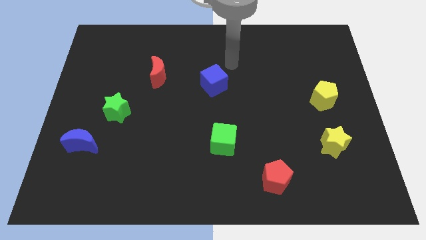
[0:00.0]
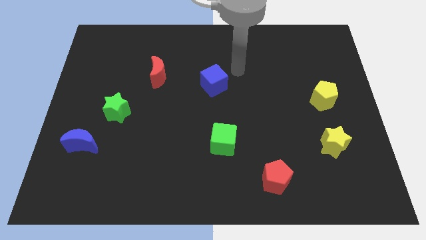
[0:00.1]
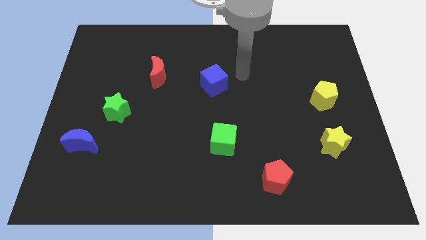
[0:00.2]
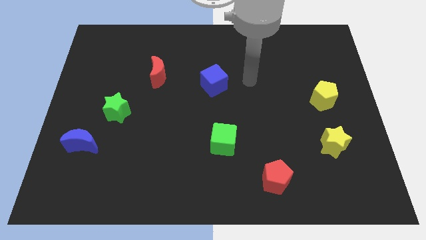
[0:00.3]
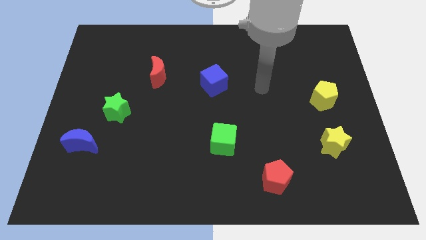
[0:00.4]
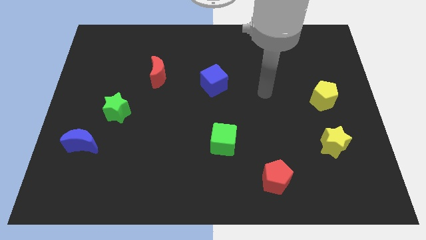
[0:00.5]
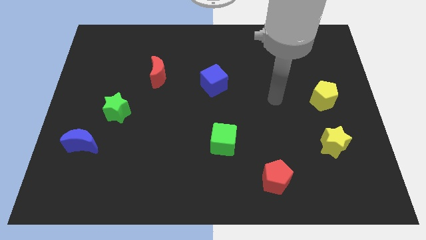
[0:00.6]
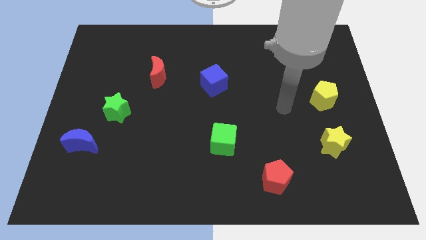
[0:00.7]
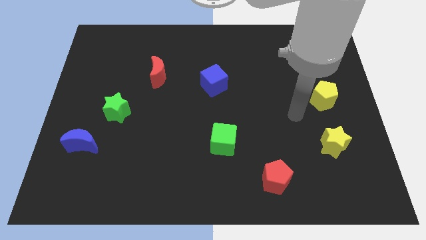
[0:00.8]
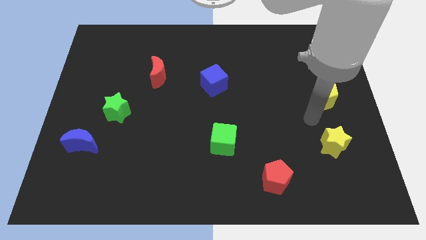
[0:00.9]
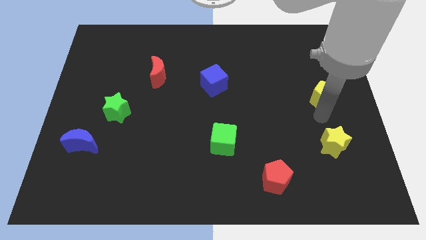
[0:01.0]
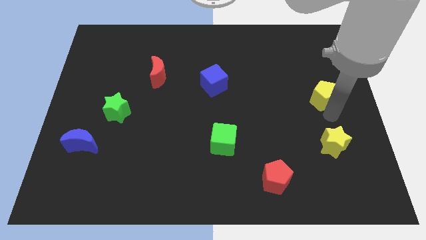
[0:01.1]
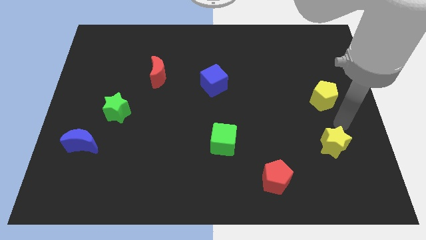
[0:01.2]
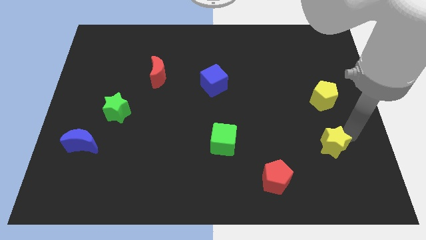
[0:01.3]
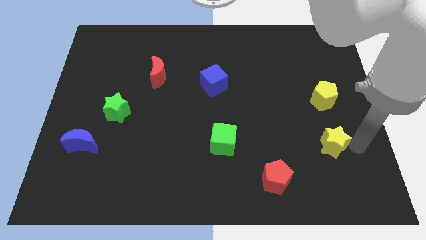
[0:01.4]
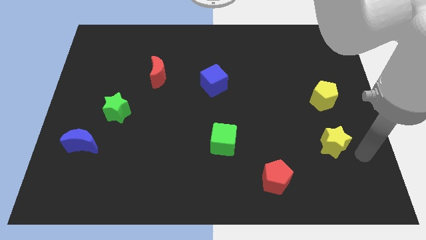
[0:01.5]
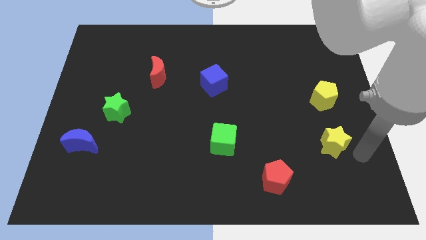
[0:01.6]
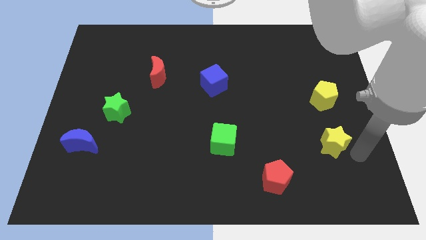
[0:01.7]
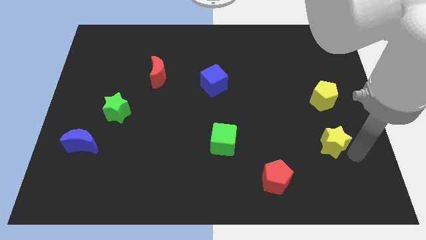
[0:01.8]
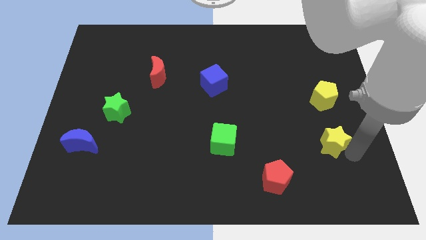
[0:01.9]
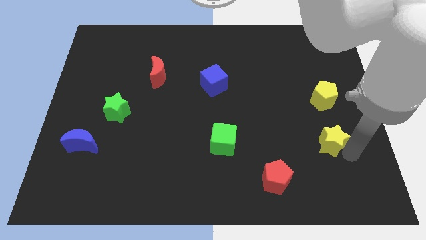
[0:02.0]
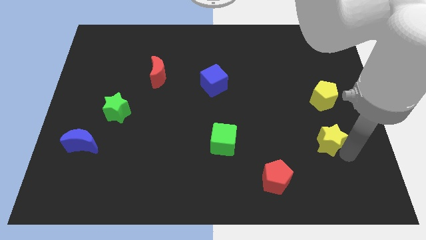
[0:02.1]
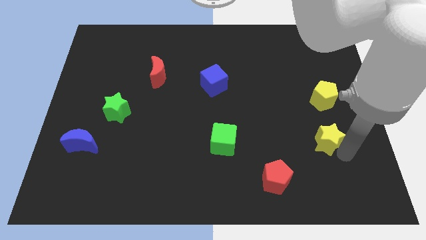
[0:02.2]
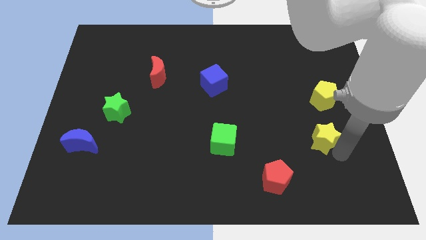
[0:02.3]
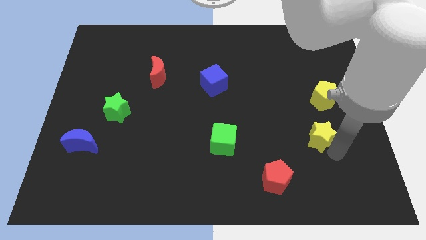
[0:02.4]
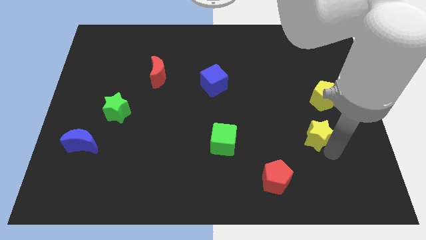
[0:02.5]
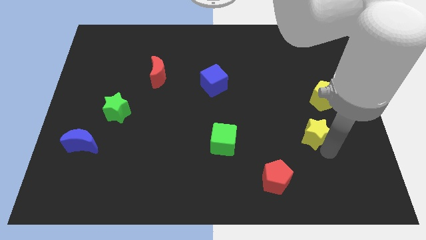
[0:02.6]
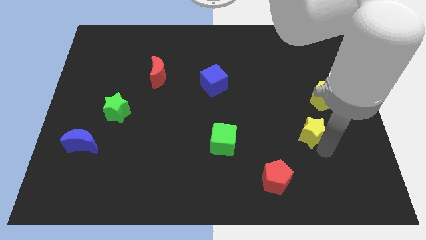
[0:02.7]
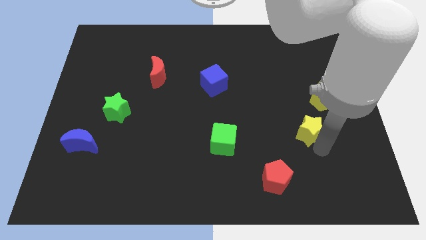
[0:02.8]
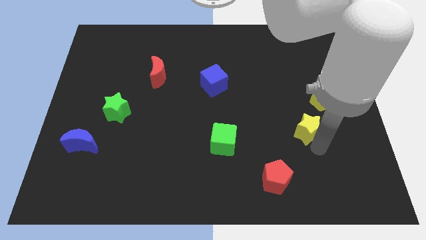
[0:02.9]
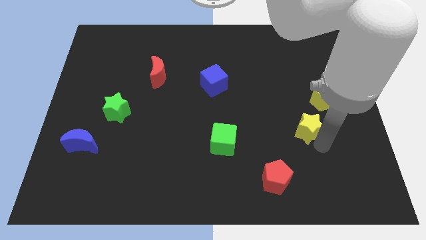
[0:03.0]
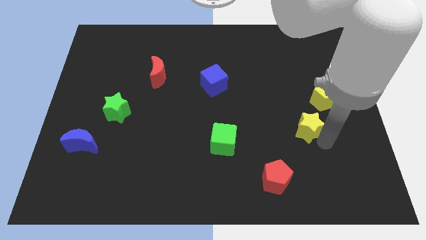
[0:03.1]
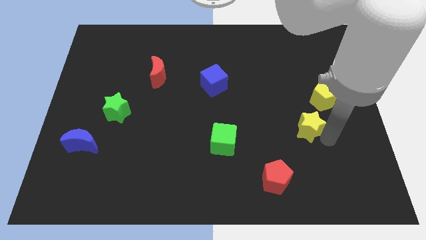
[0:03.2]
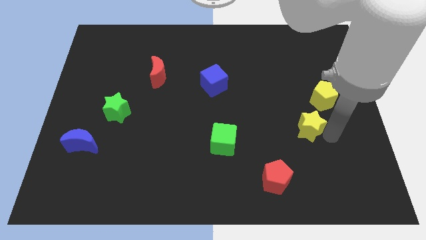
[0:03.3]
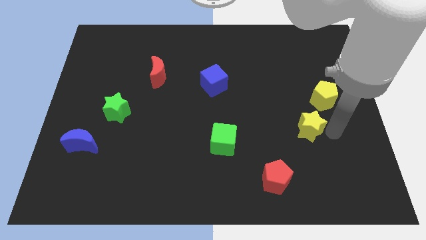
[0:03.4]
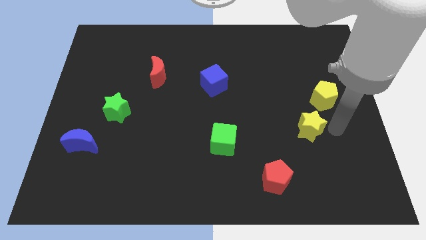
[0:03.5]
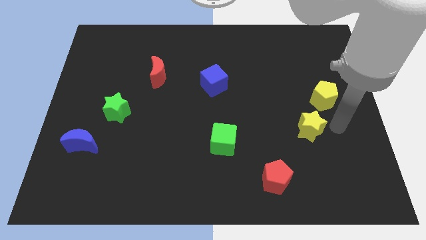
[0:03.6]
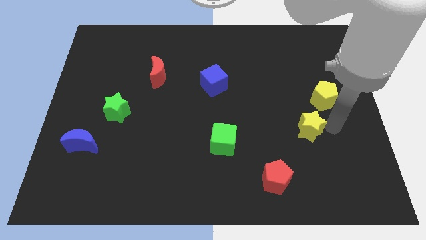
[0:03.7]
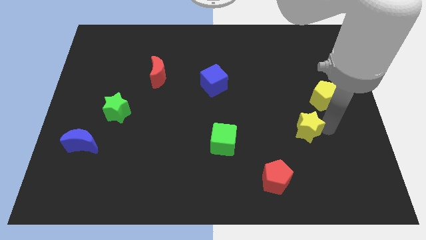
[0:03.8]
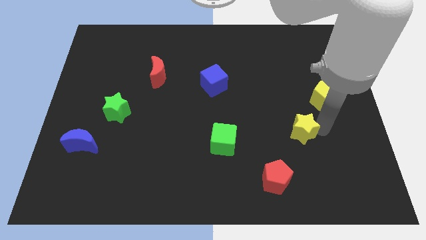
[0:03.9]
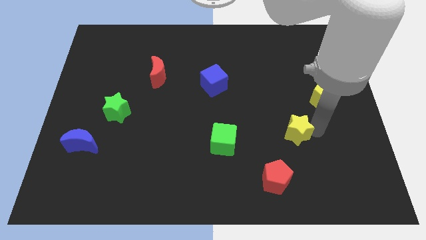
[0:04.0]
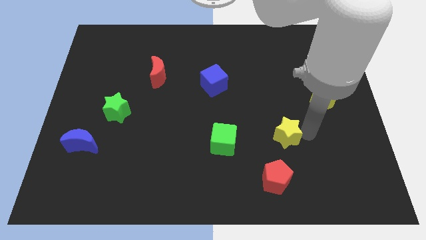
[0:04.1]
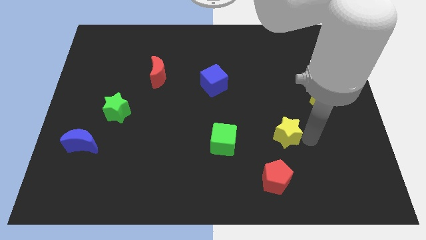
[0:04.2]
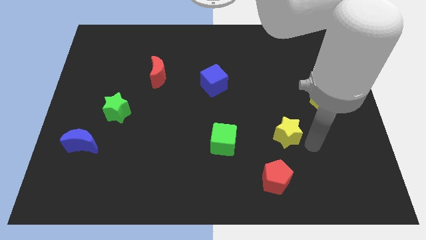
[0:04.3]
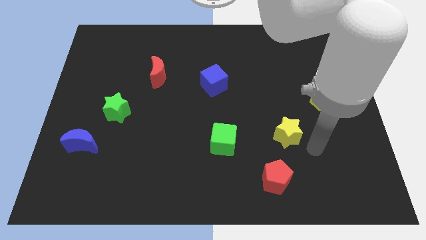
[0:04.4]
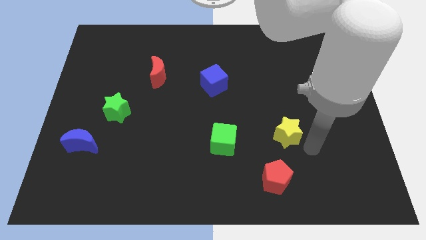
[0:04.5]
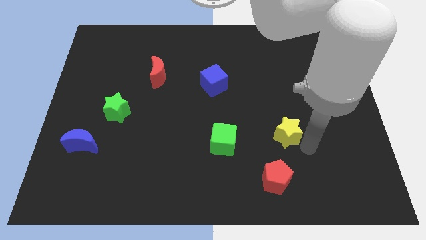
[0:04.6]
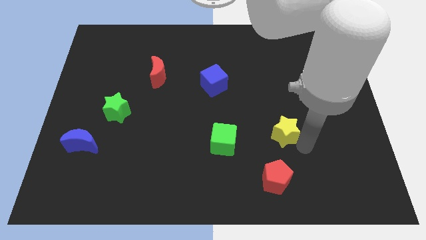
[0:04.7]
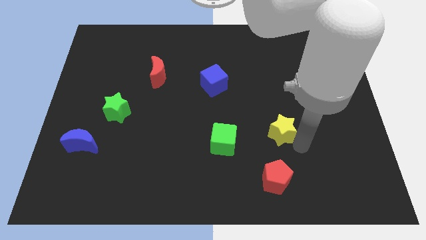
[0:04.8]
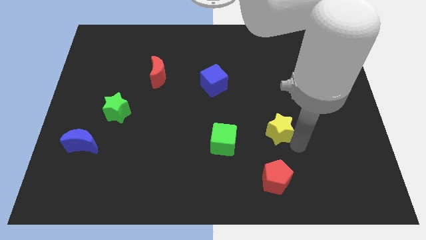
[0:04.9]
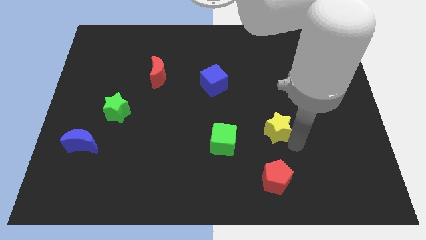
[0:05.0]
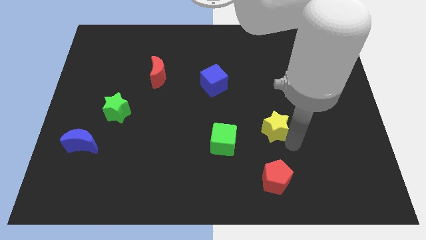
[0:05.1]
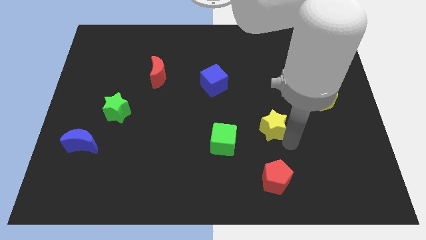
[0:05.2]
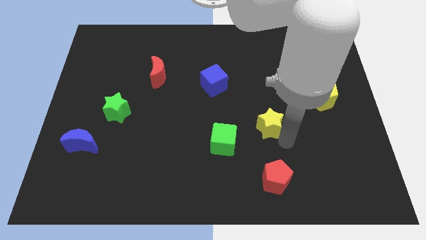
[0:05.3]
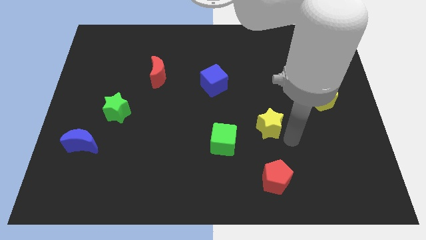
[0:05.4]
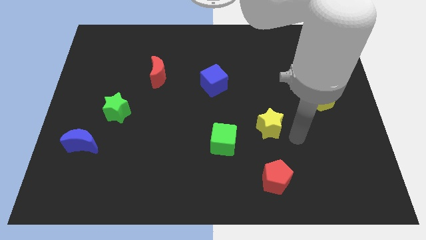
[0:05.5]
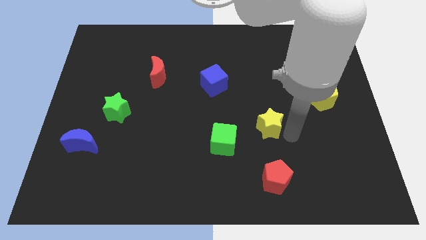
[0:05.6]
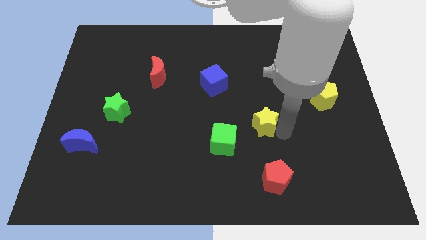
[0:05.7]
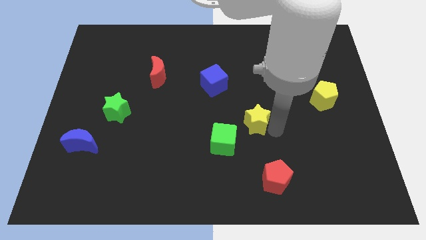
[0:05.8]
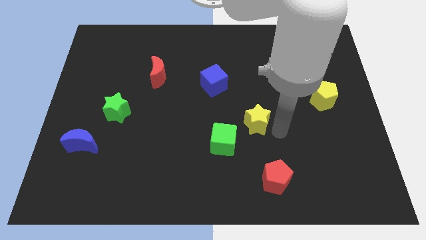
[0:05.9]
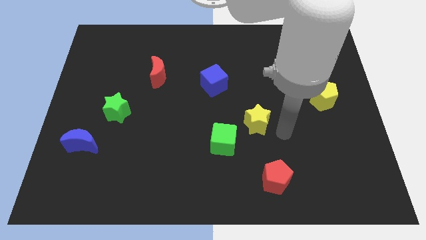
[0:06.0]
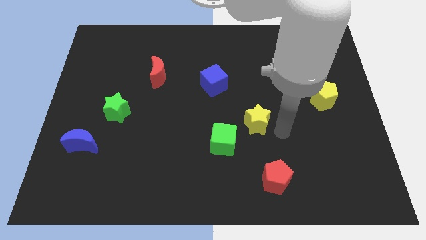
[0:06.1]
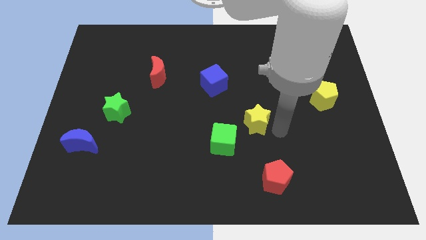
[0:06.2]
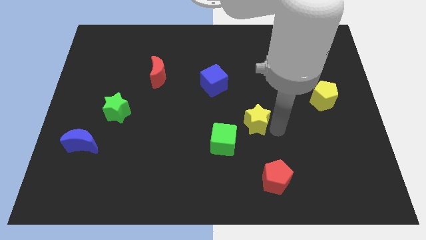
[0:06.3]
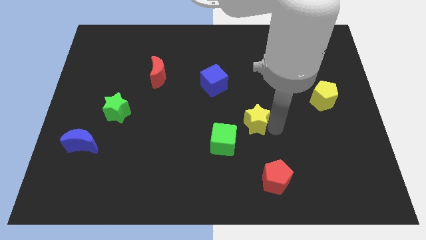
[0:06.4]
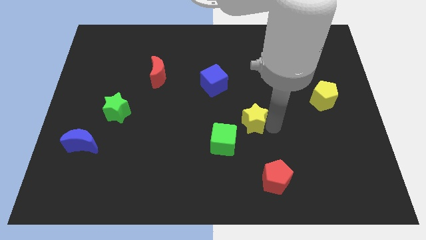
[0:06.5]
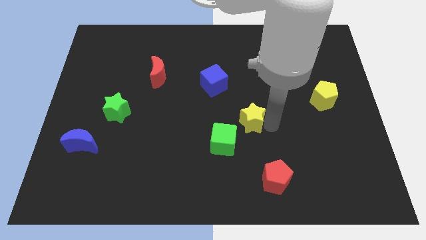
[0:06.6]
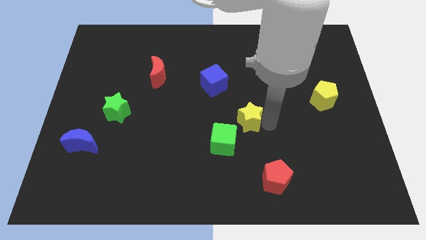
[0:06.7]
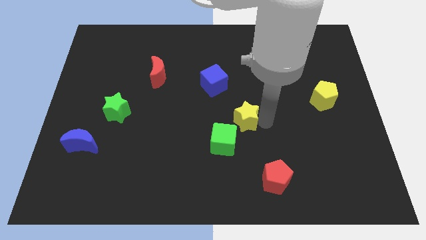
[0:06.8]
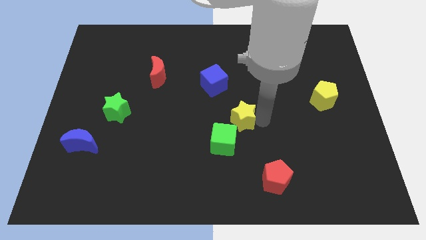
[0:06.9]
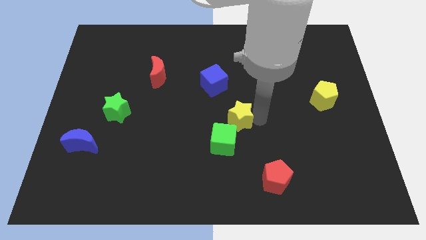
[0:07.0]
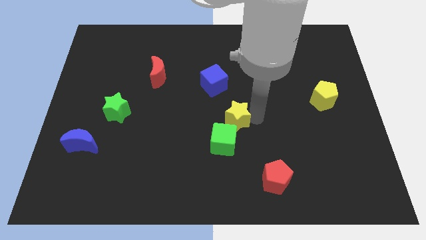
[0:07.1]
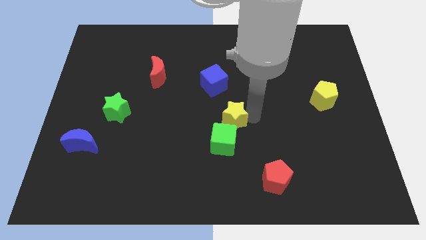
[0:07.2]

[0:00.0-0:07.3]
push the yellow star to the bottom of the blue cube
